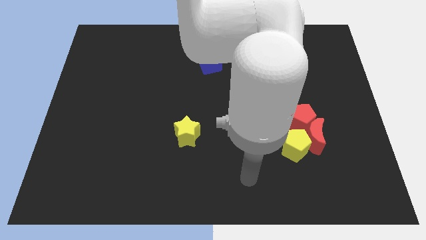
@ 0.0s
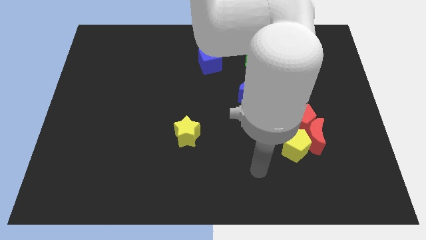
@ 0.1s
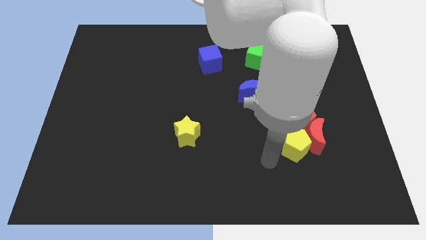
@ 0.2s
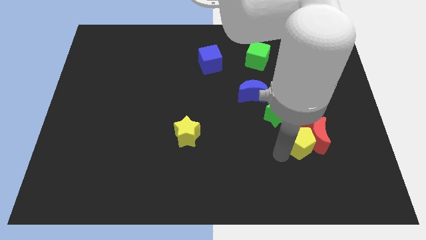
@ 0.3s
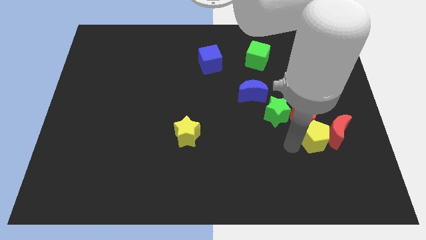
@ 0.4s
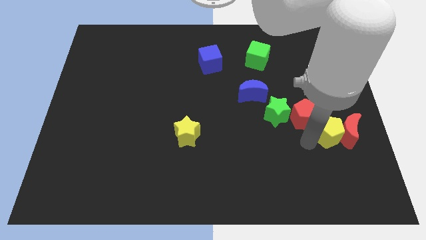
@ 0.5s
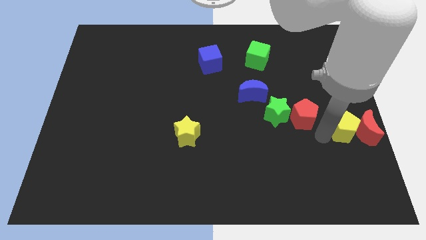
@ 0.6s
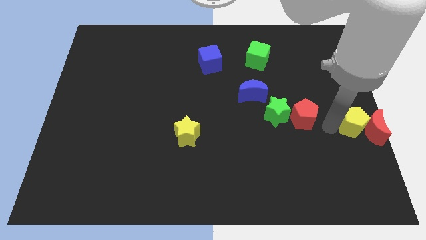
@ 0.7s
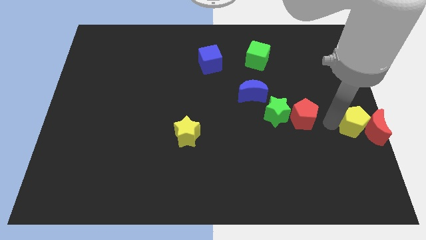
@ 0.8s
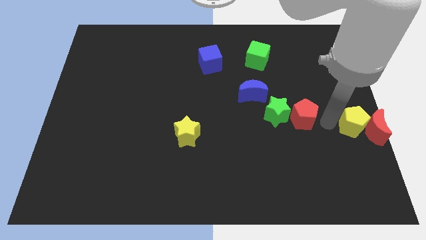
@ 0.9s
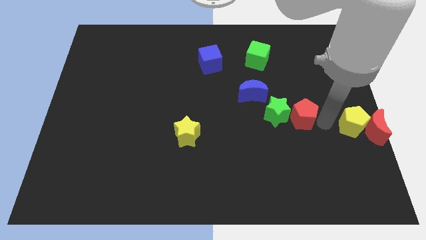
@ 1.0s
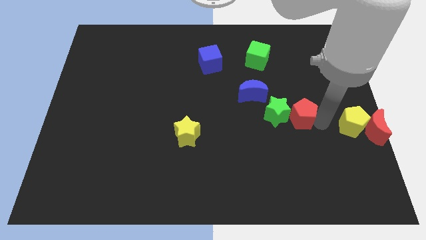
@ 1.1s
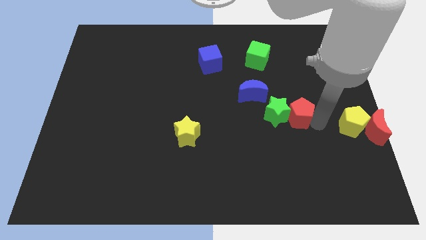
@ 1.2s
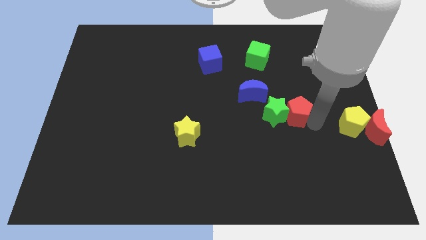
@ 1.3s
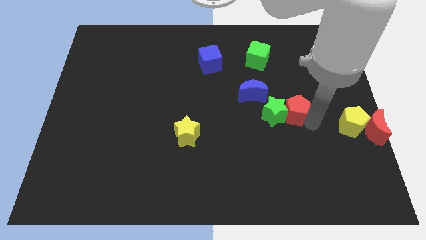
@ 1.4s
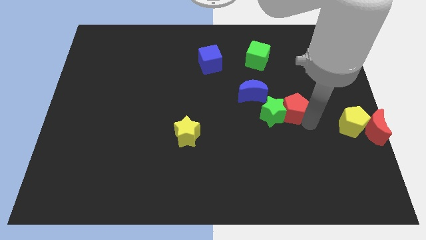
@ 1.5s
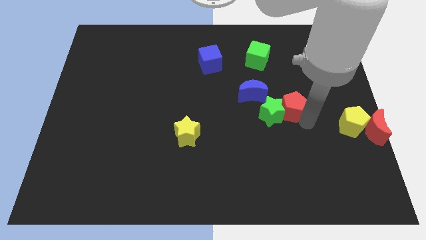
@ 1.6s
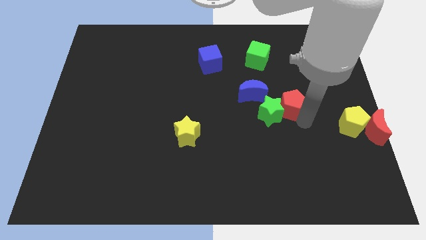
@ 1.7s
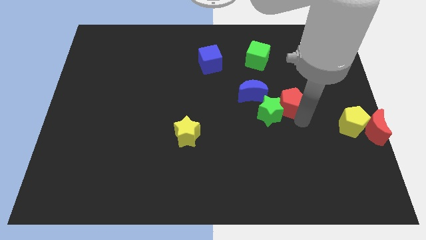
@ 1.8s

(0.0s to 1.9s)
move the red pentagon away from the red moon, green star, and yellow pentagon

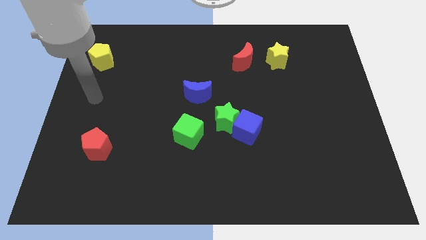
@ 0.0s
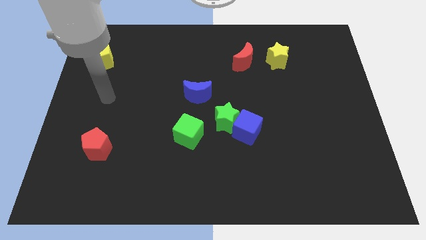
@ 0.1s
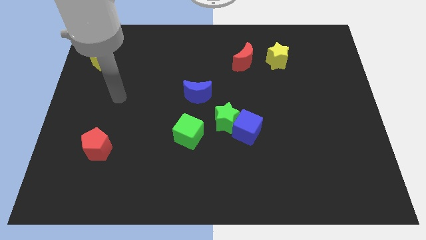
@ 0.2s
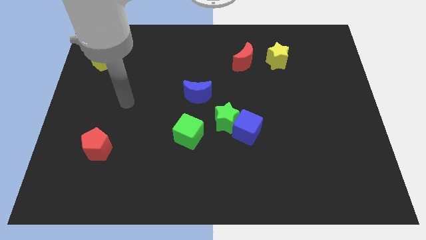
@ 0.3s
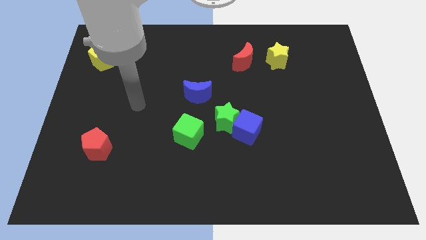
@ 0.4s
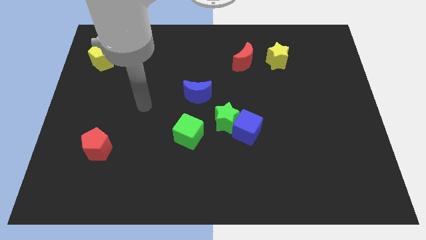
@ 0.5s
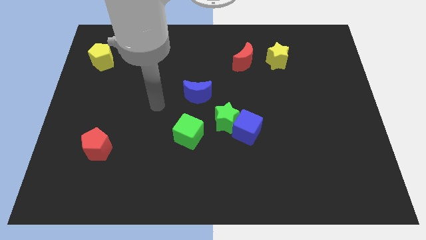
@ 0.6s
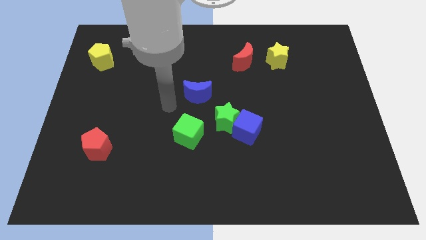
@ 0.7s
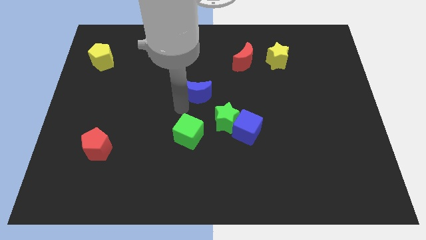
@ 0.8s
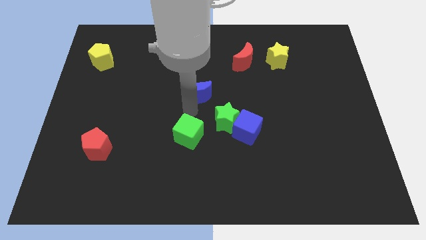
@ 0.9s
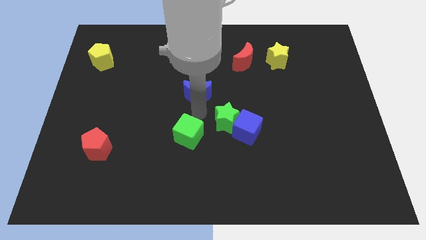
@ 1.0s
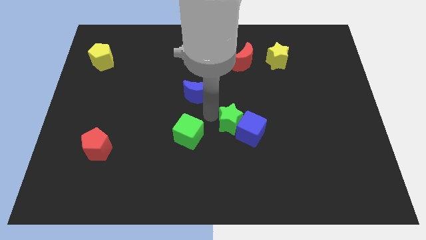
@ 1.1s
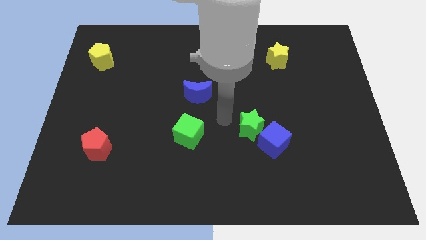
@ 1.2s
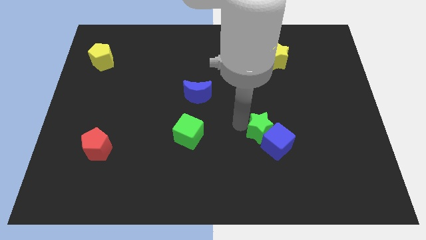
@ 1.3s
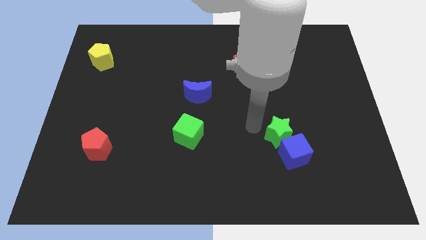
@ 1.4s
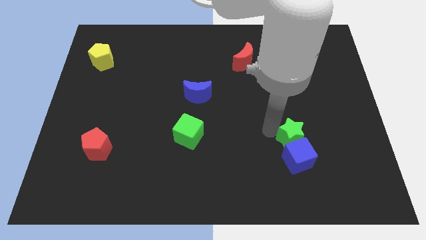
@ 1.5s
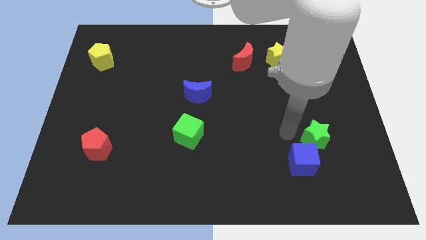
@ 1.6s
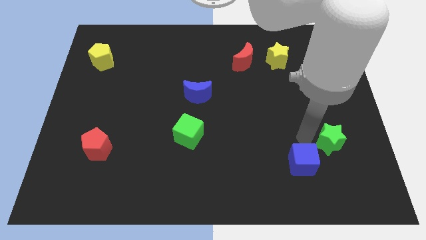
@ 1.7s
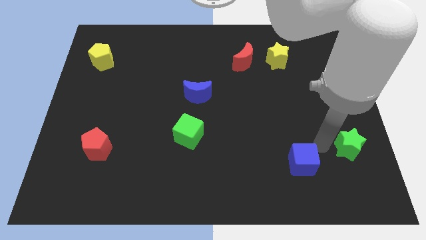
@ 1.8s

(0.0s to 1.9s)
separate the blue cube from the green star

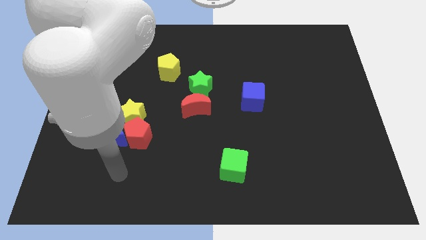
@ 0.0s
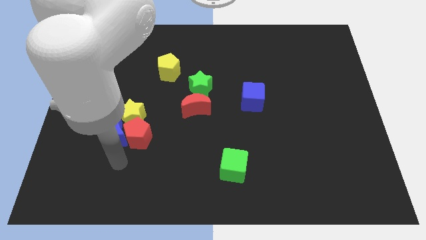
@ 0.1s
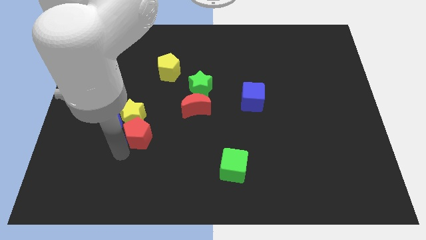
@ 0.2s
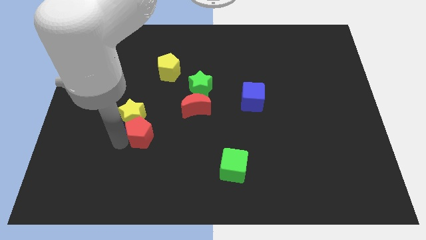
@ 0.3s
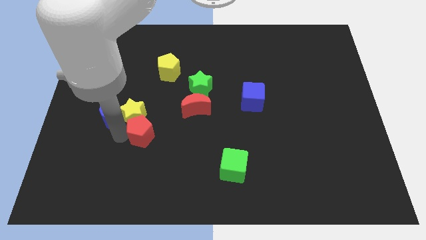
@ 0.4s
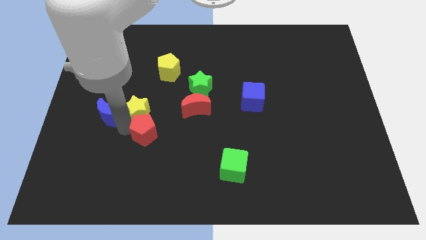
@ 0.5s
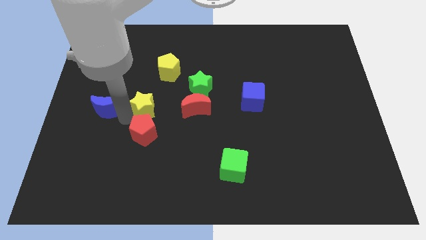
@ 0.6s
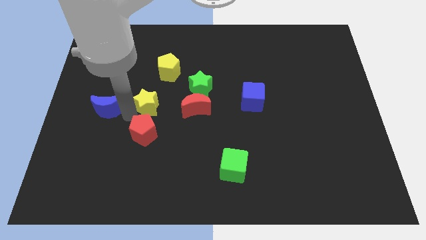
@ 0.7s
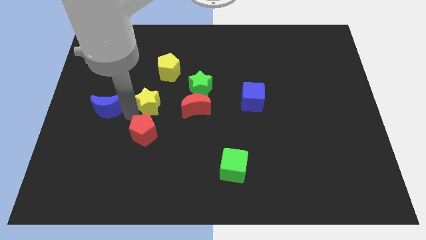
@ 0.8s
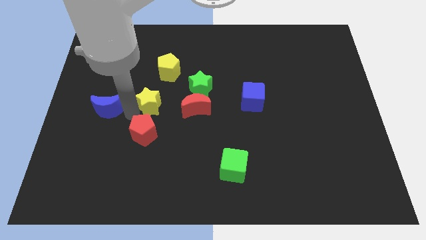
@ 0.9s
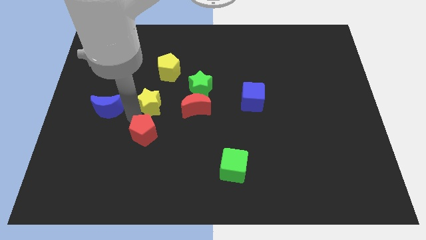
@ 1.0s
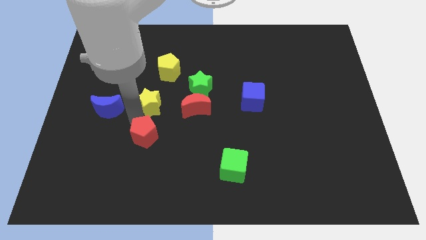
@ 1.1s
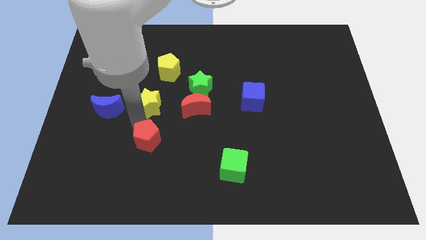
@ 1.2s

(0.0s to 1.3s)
move the red pentagon away from the blue moon and yellow star

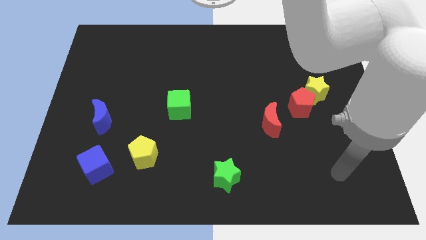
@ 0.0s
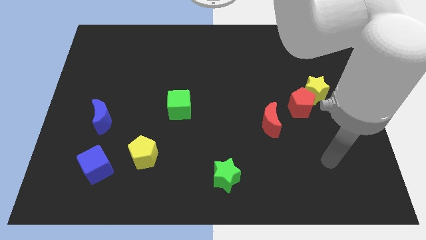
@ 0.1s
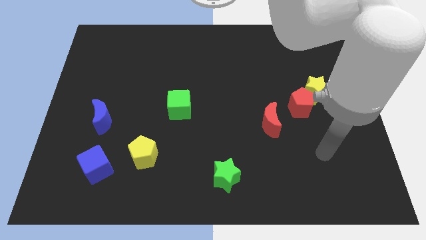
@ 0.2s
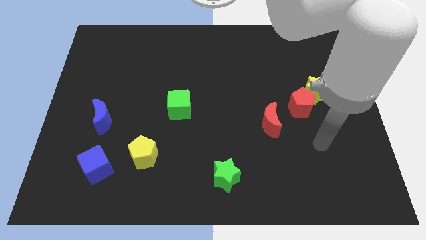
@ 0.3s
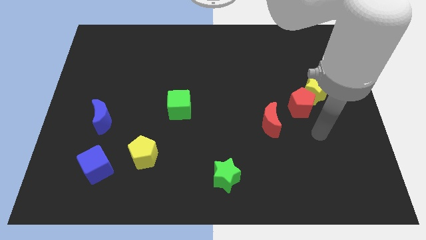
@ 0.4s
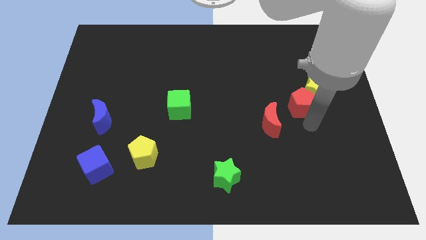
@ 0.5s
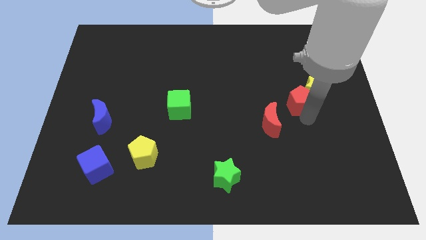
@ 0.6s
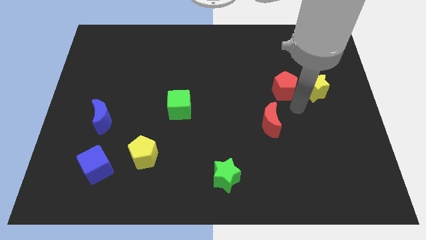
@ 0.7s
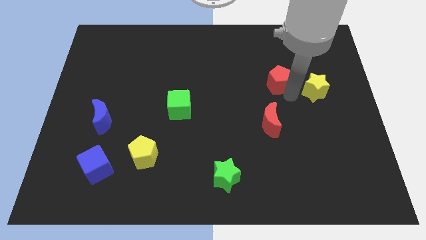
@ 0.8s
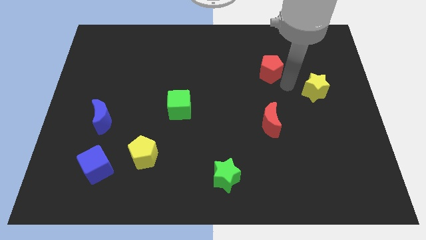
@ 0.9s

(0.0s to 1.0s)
pull the yellow star apart from the red pentagon

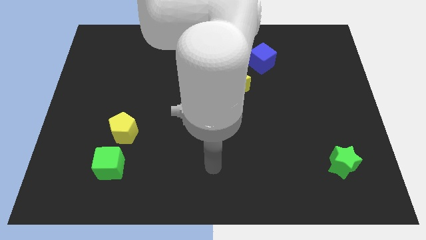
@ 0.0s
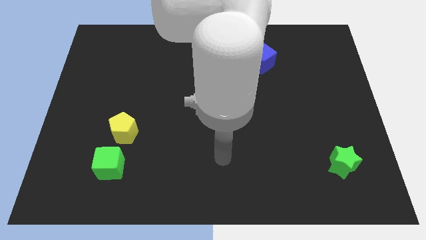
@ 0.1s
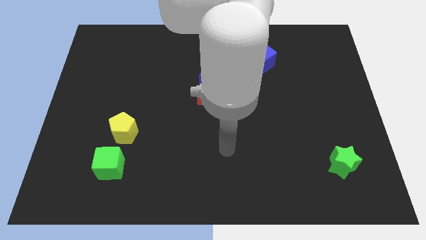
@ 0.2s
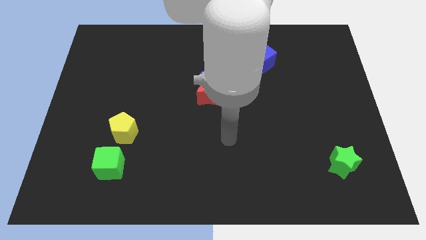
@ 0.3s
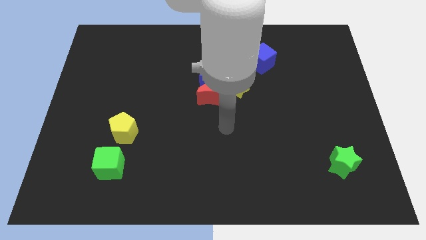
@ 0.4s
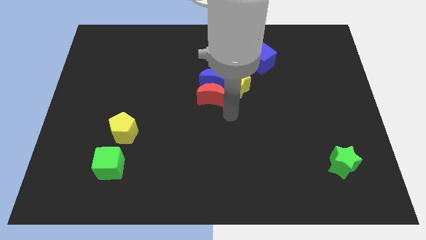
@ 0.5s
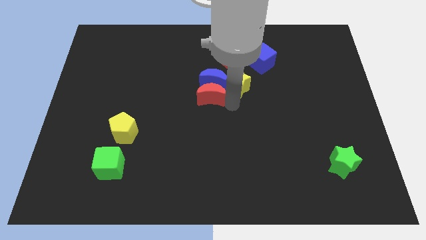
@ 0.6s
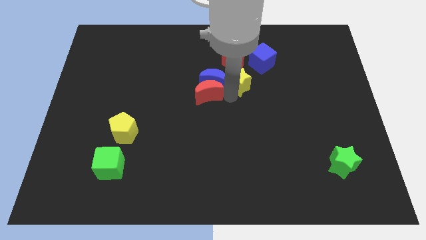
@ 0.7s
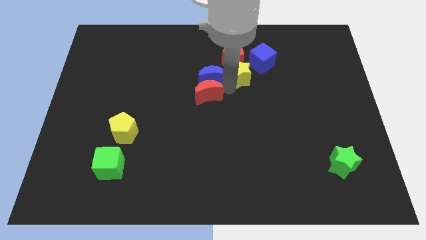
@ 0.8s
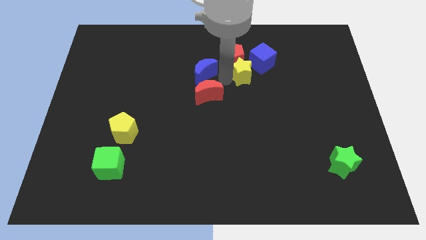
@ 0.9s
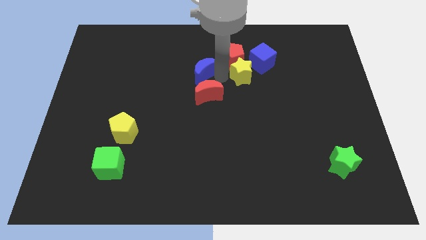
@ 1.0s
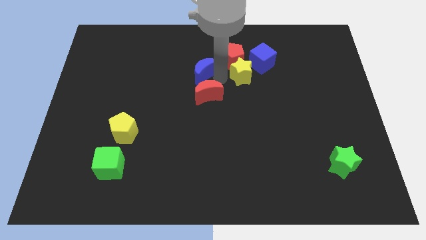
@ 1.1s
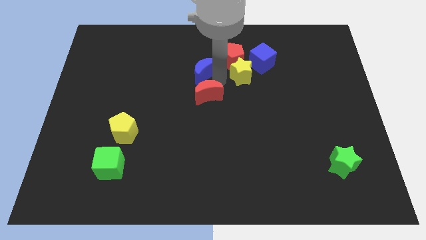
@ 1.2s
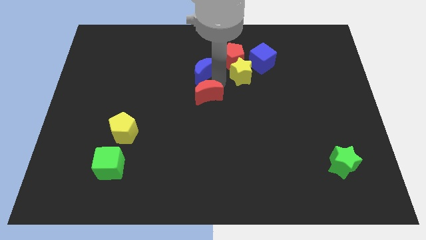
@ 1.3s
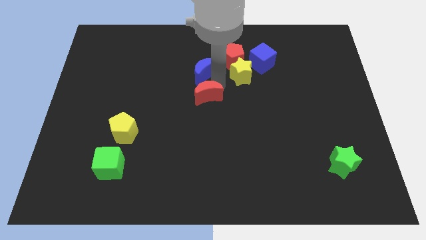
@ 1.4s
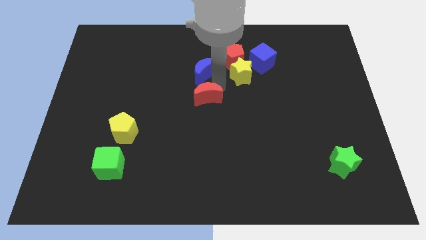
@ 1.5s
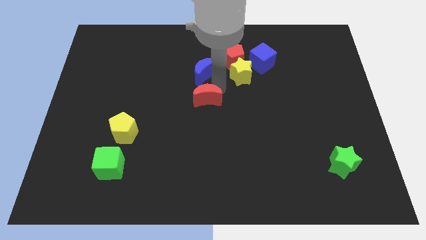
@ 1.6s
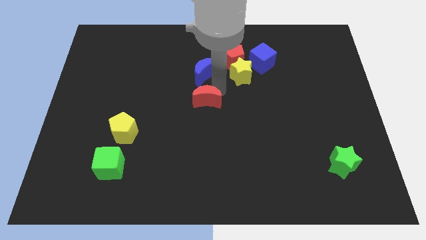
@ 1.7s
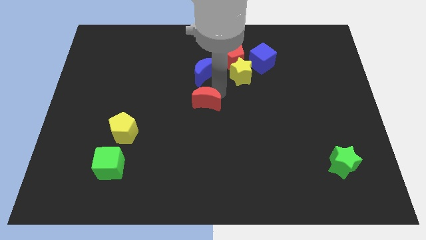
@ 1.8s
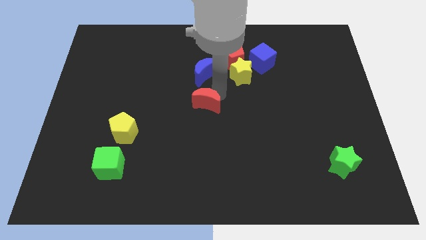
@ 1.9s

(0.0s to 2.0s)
move the red moon away from the blue moon and yellow star

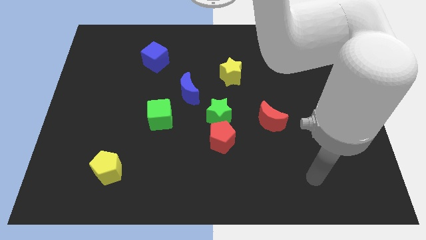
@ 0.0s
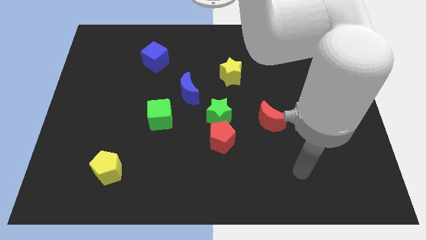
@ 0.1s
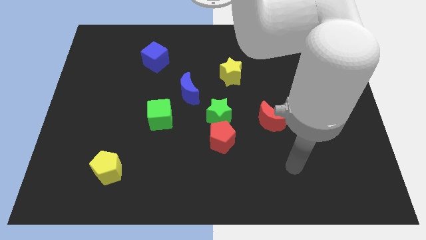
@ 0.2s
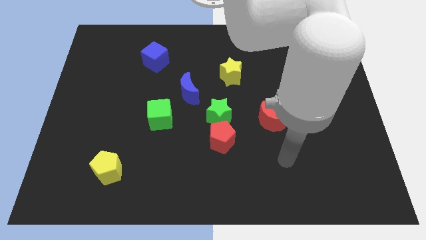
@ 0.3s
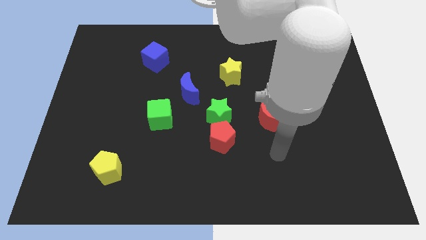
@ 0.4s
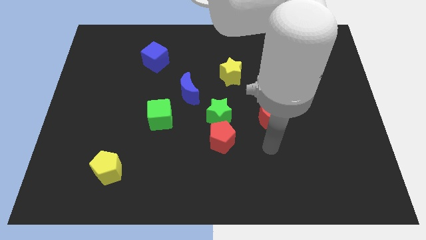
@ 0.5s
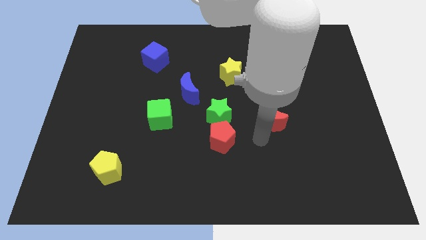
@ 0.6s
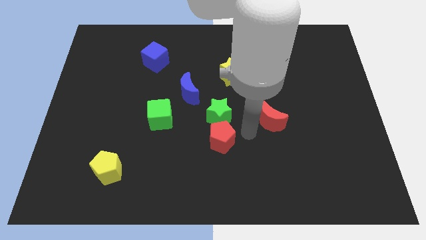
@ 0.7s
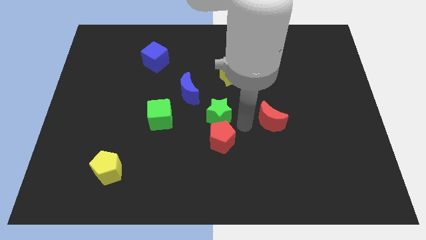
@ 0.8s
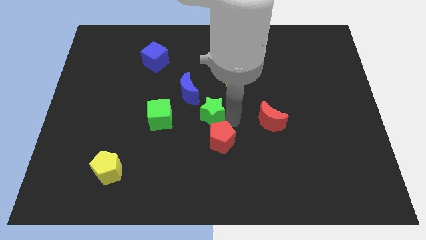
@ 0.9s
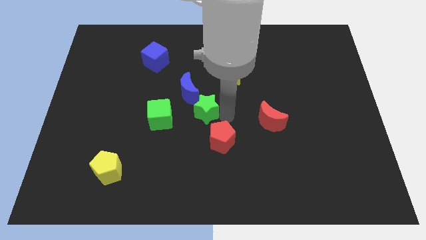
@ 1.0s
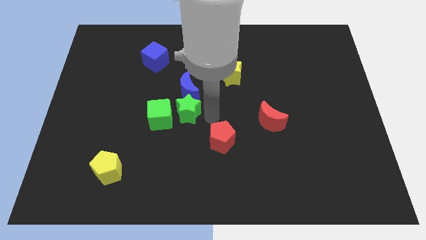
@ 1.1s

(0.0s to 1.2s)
separate the red pentagon from the green star

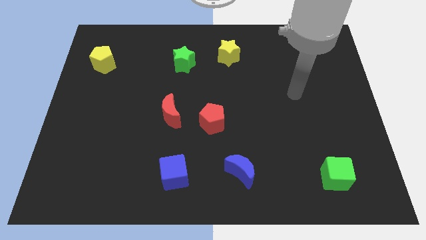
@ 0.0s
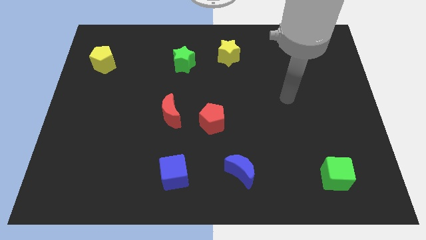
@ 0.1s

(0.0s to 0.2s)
separate the red moon from the red pentagon
